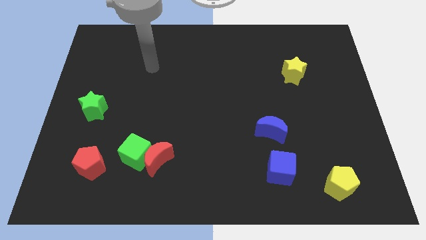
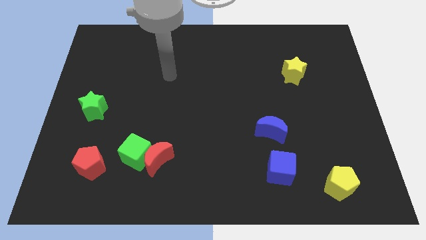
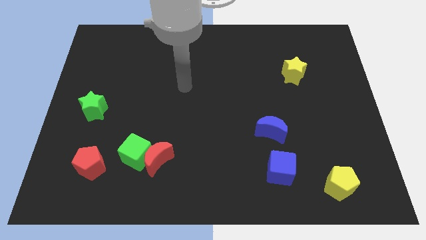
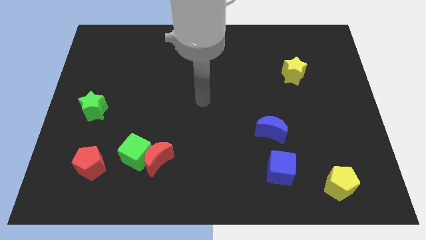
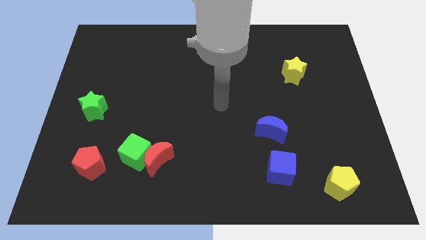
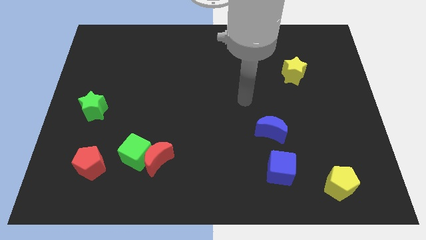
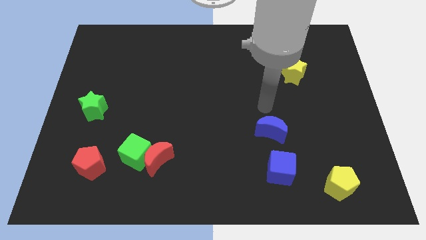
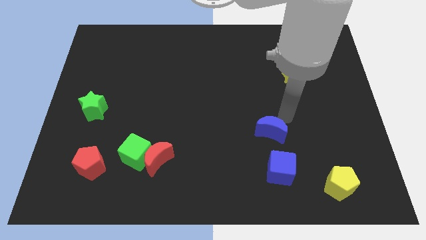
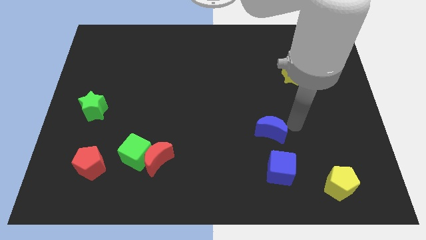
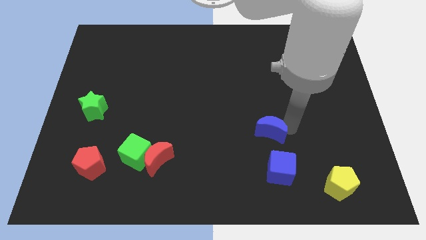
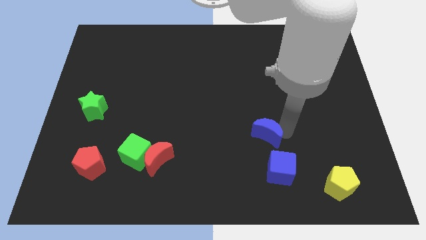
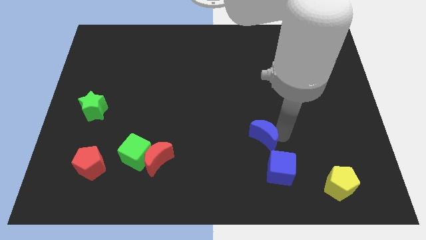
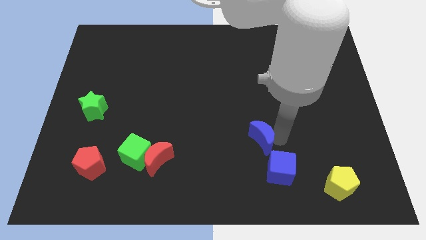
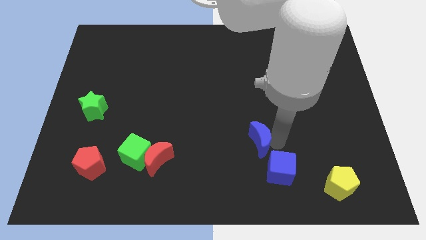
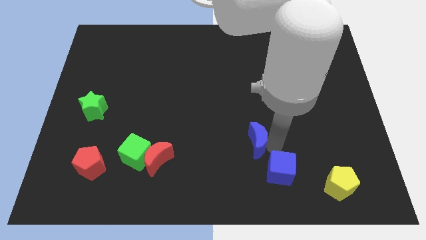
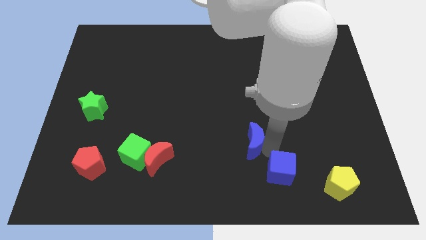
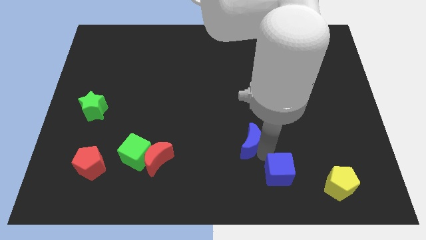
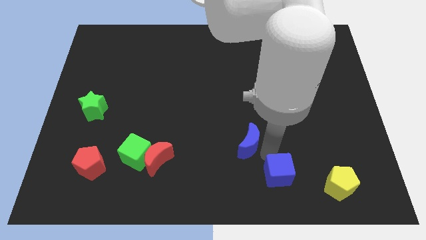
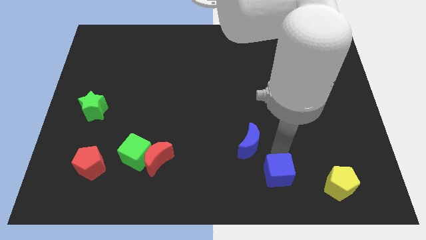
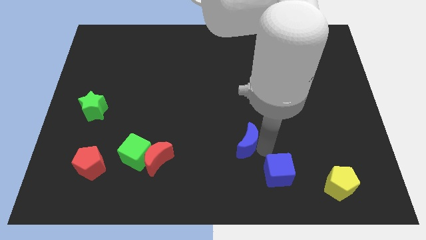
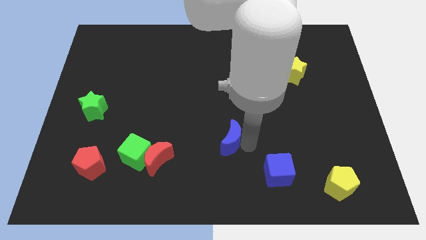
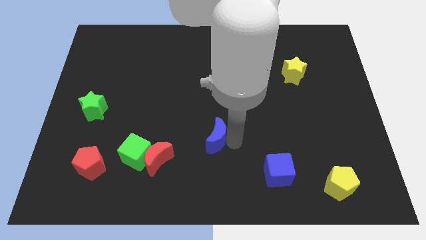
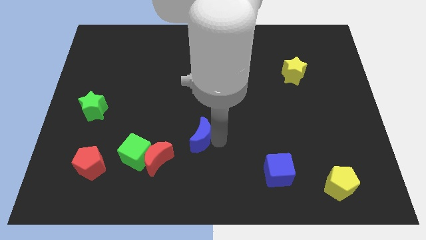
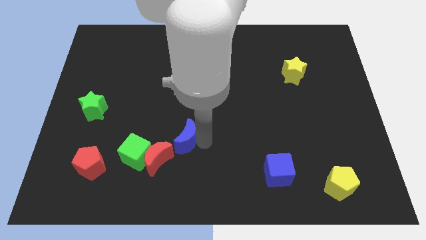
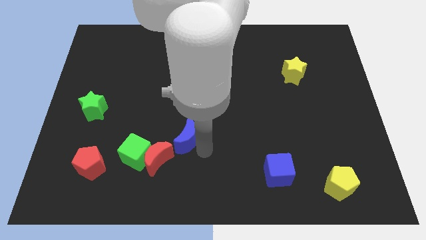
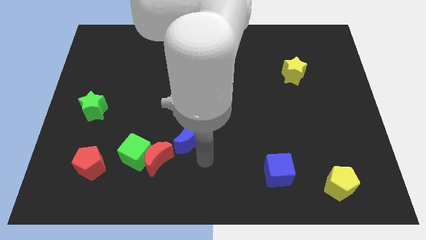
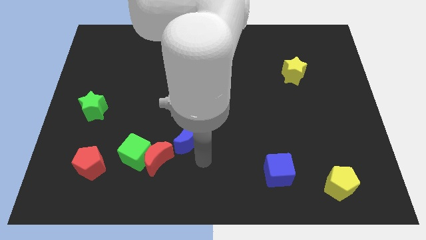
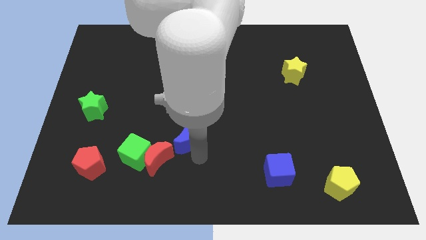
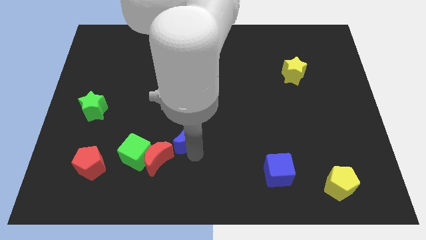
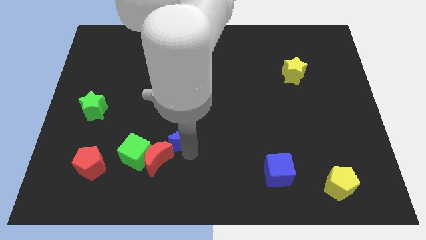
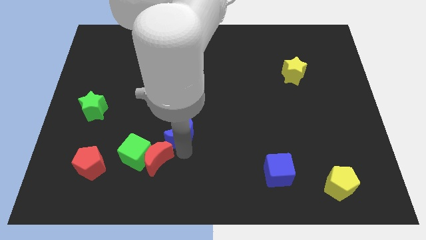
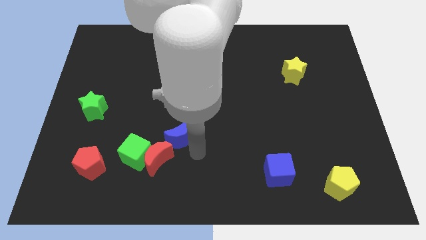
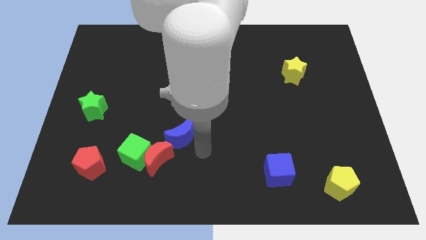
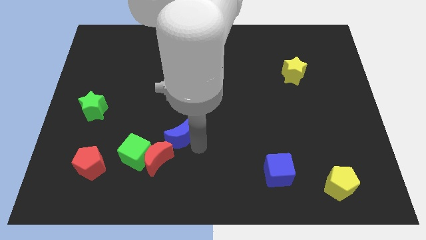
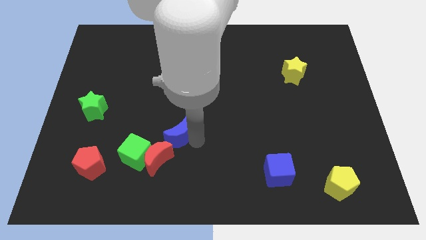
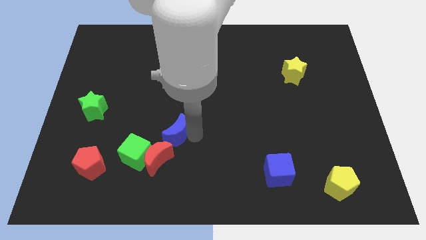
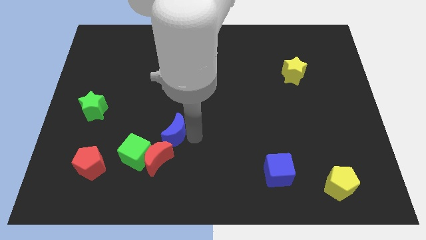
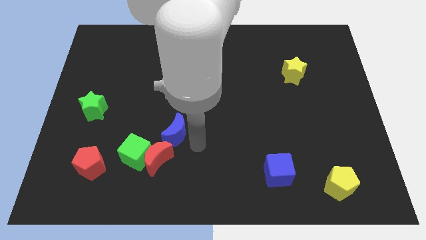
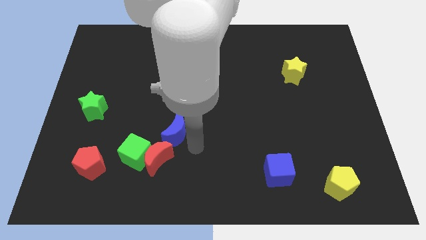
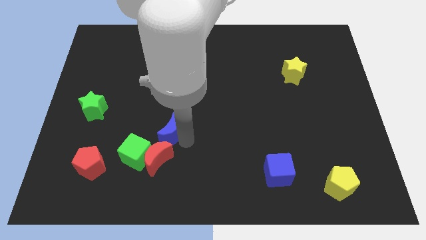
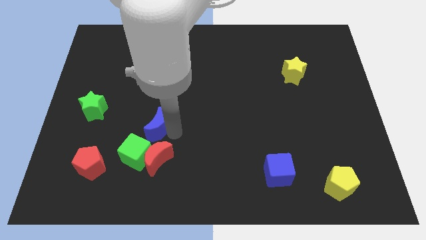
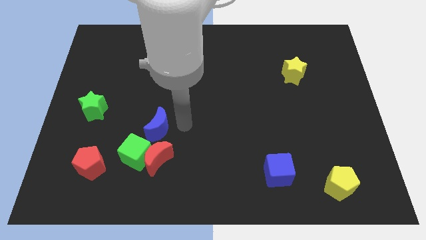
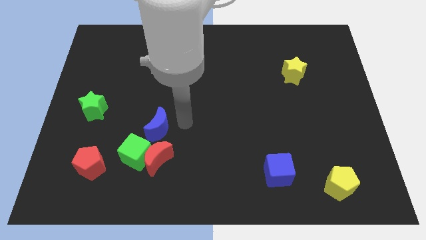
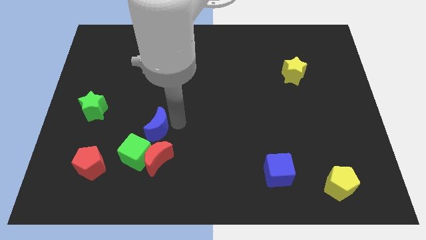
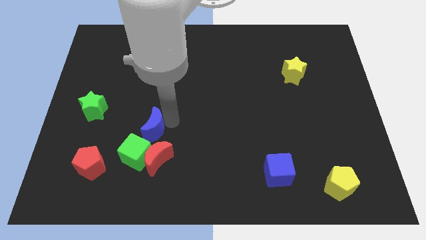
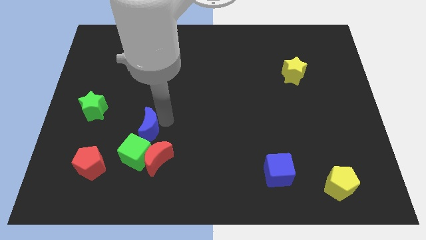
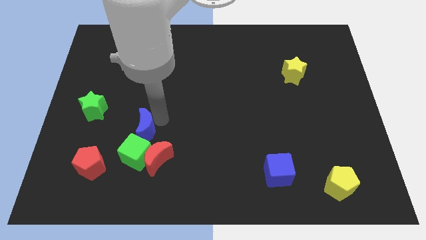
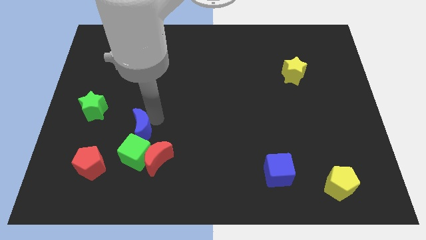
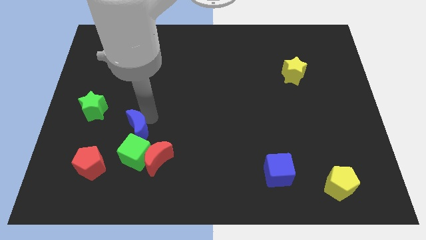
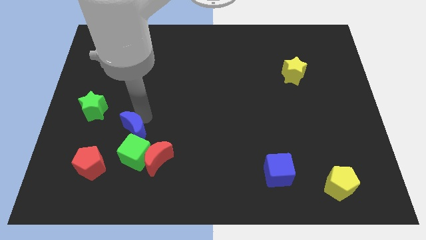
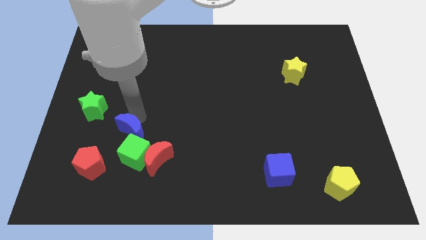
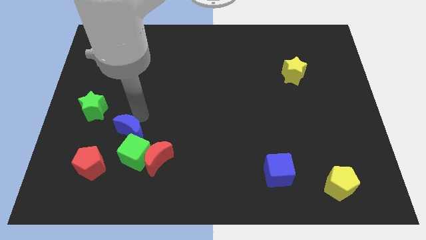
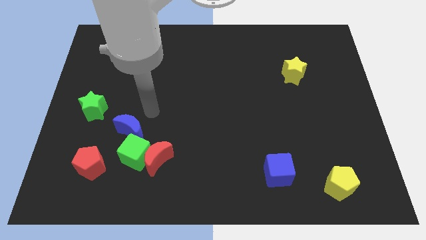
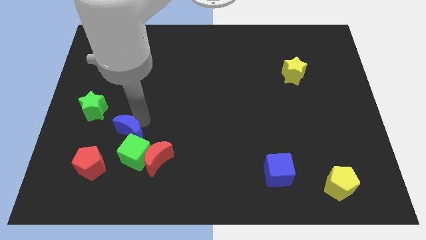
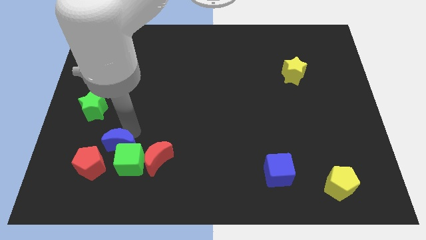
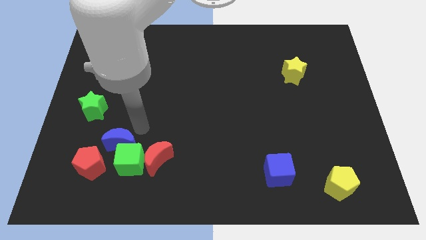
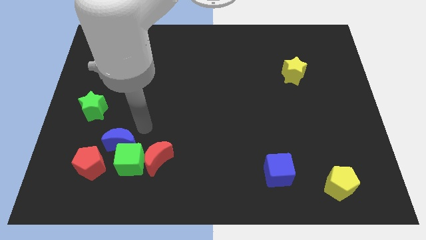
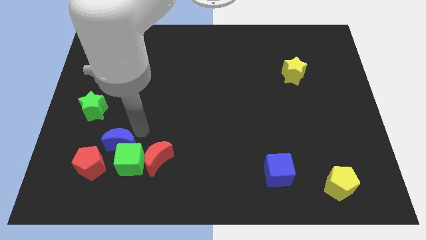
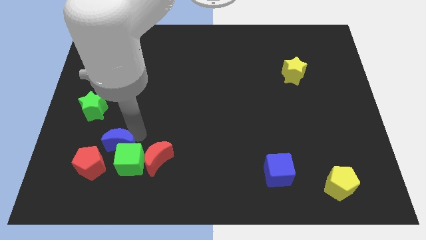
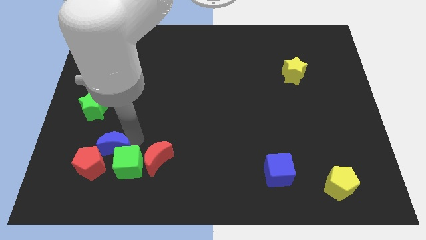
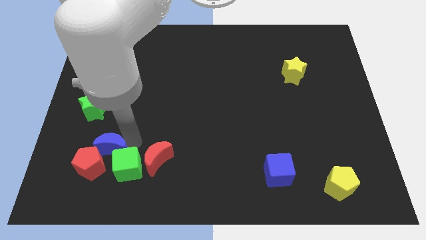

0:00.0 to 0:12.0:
put the blue moon to the red pentagon

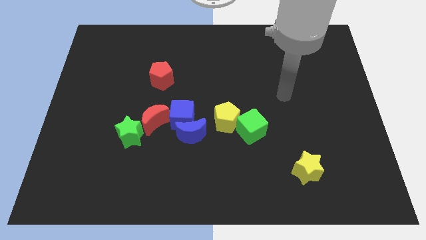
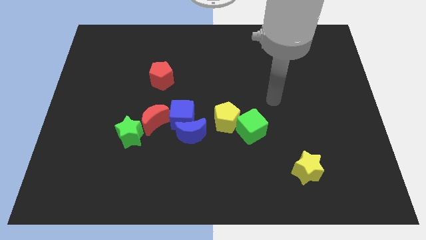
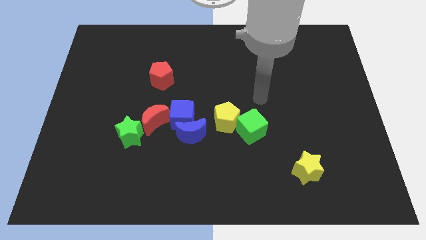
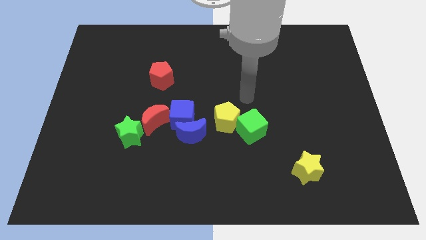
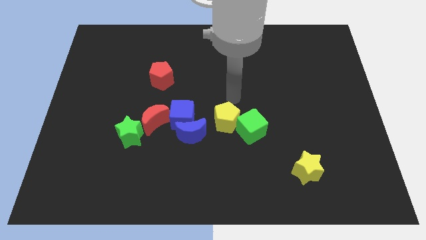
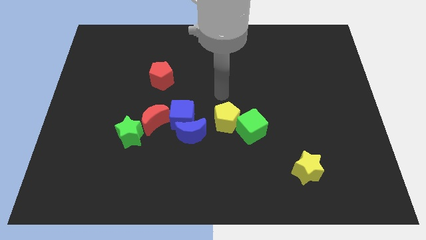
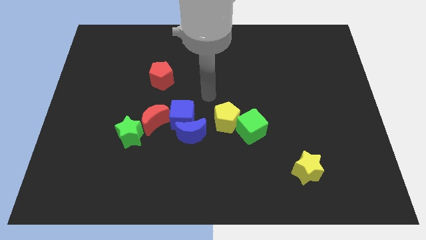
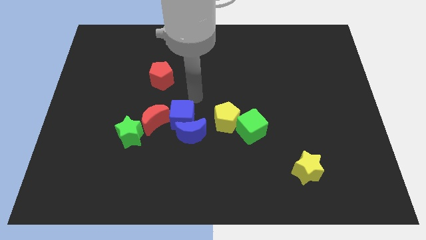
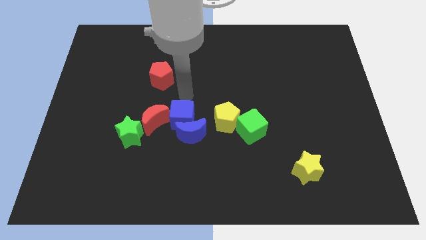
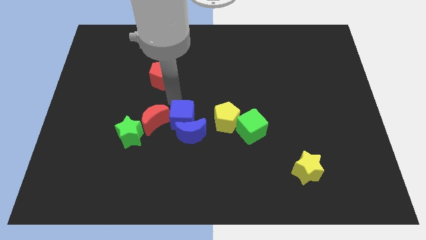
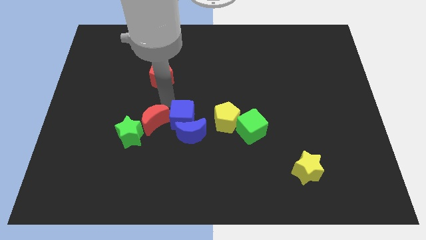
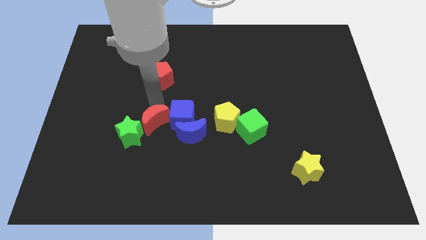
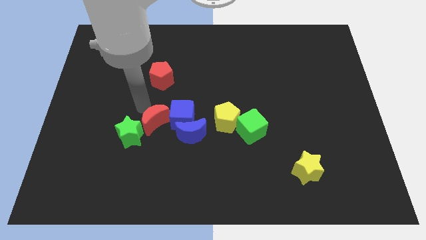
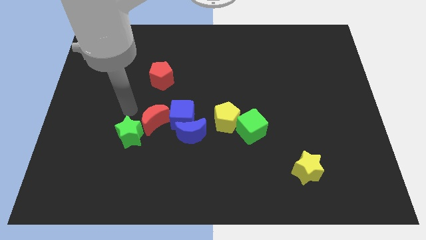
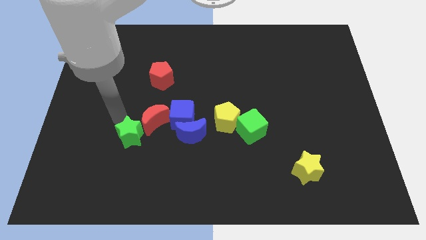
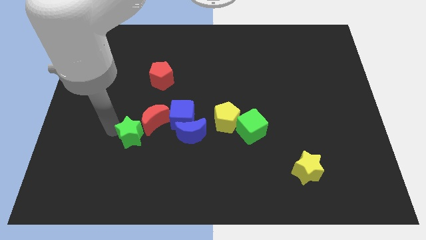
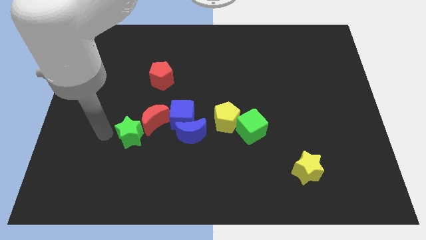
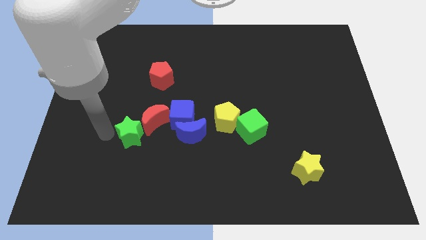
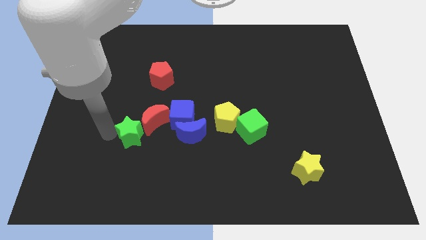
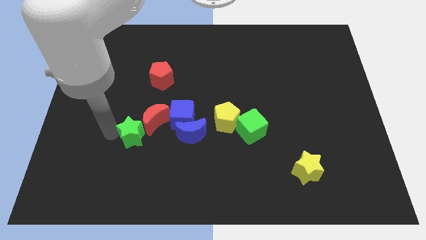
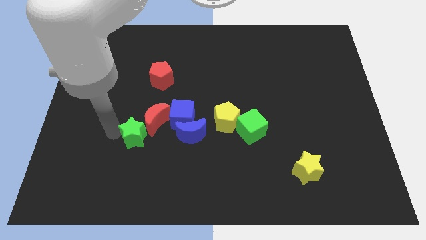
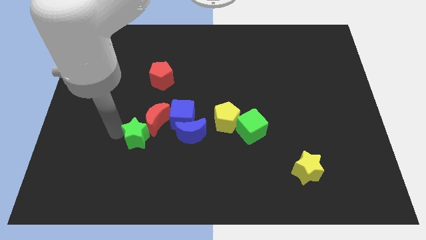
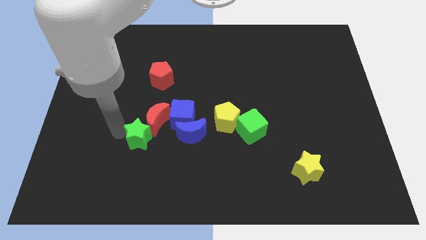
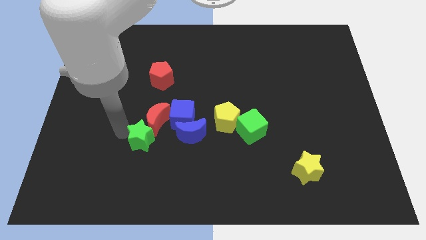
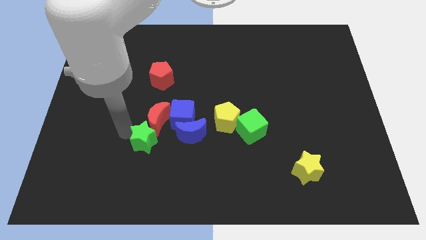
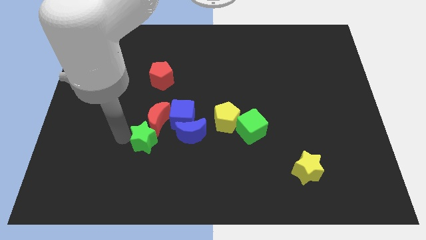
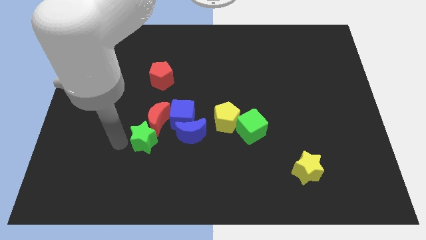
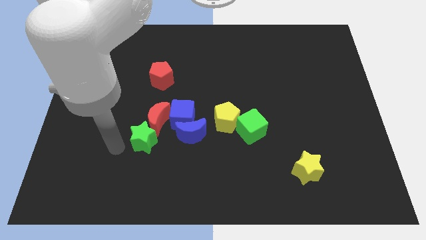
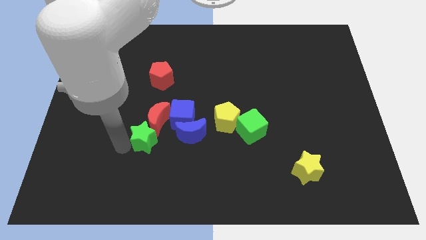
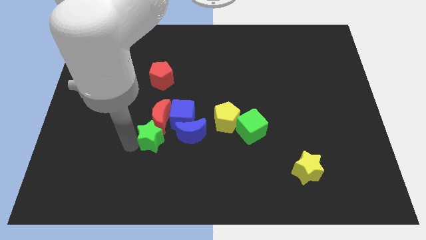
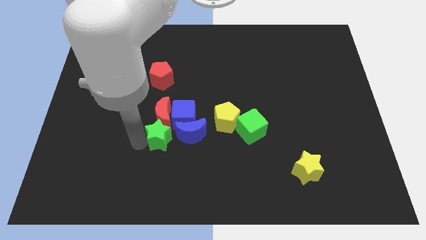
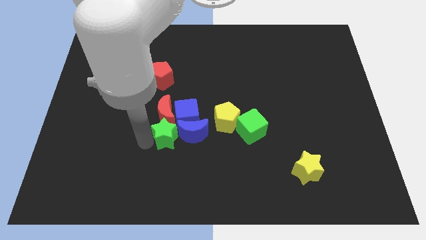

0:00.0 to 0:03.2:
push the green star to the blue moon
